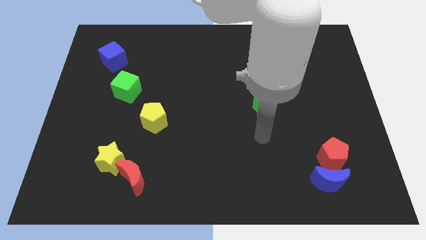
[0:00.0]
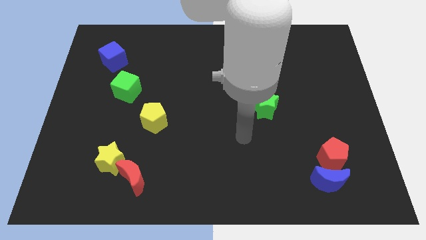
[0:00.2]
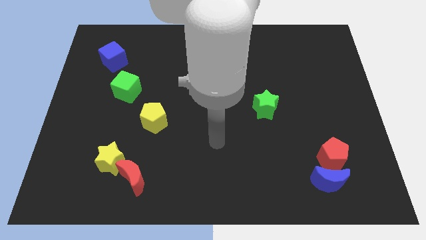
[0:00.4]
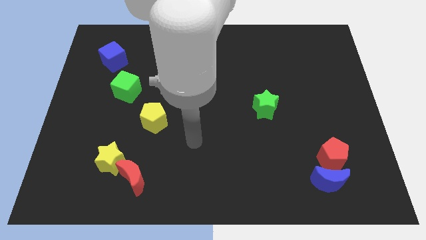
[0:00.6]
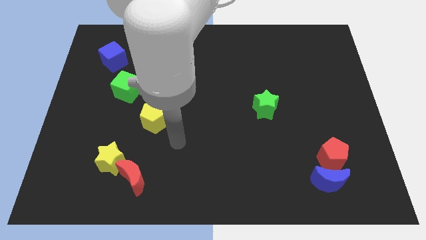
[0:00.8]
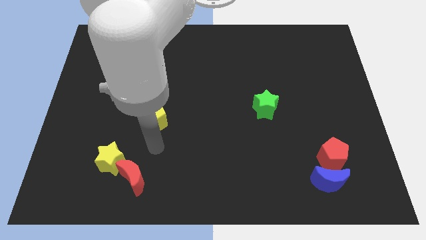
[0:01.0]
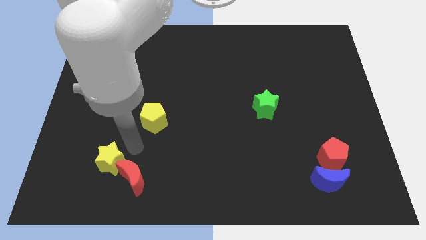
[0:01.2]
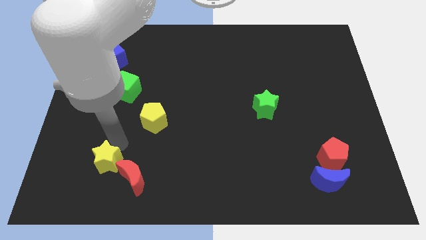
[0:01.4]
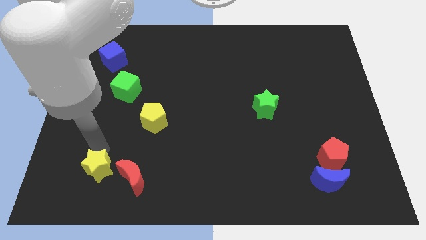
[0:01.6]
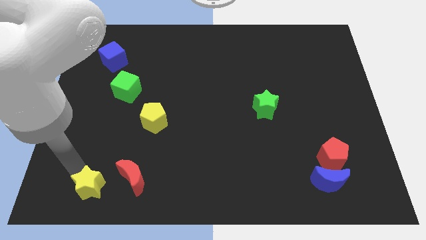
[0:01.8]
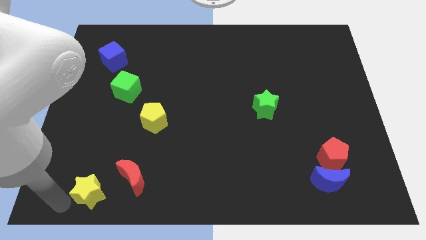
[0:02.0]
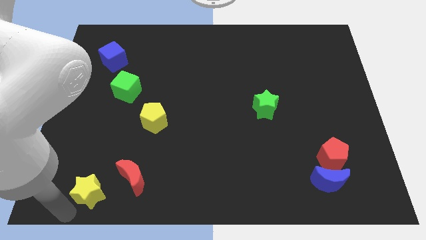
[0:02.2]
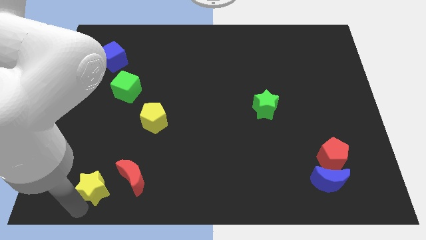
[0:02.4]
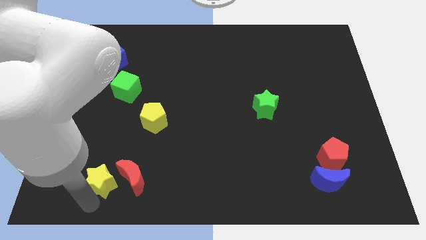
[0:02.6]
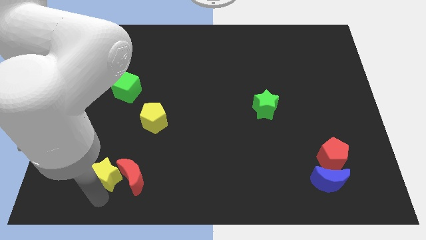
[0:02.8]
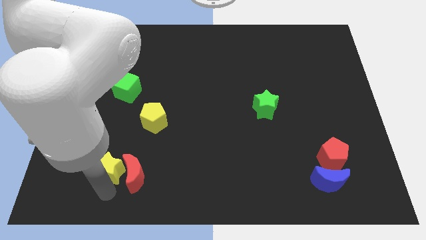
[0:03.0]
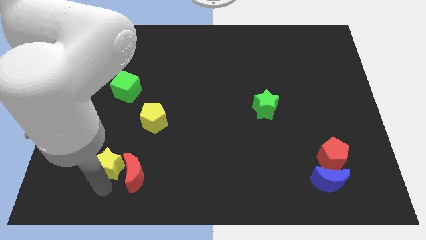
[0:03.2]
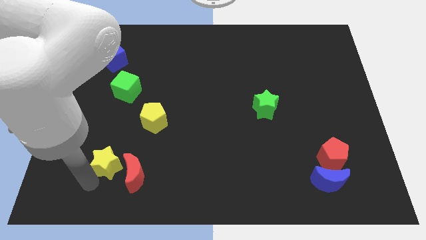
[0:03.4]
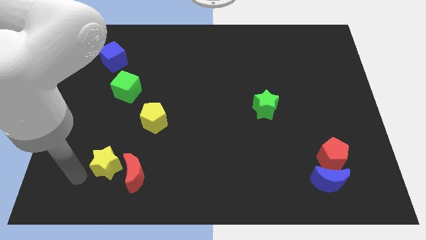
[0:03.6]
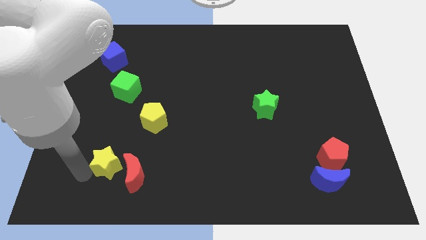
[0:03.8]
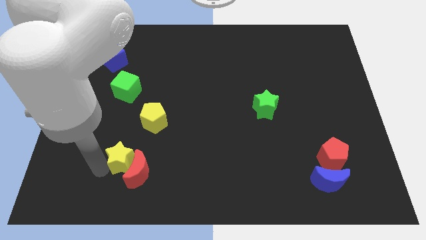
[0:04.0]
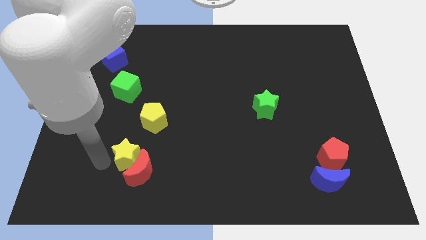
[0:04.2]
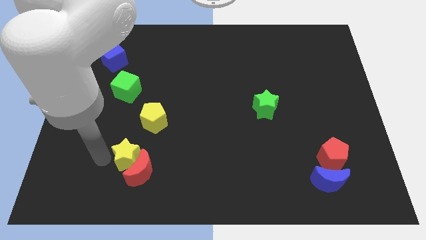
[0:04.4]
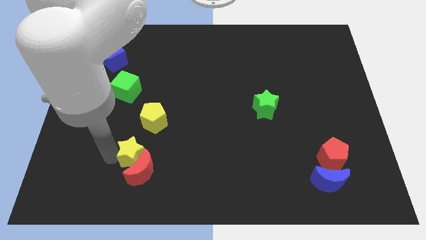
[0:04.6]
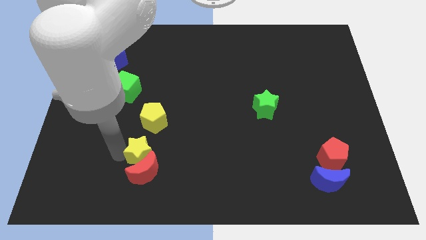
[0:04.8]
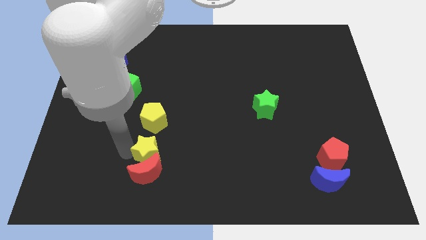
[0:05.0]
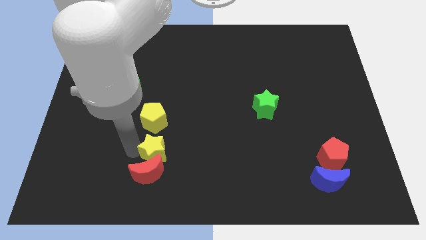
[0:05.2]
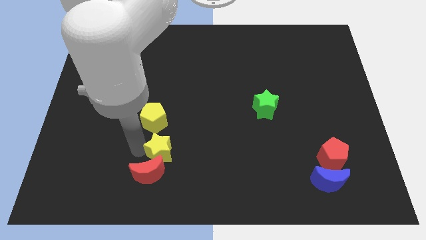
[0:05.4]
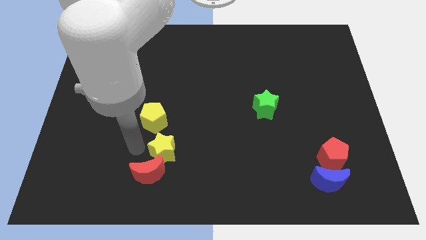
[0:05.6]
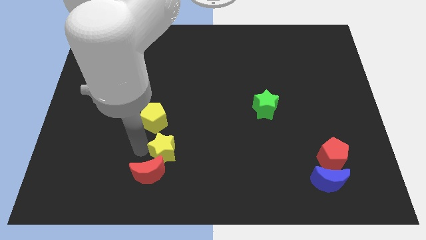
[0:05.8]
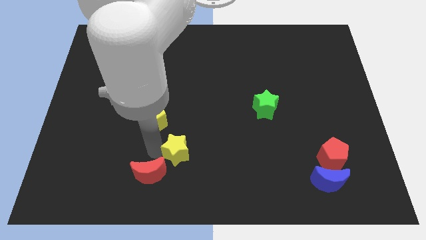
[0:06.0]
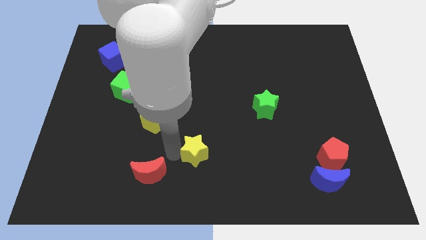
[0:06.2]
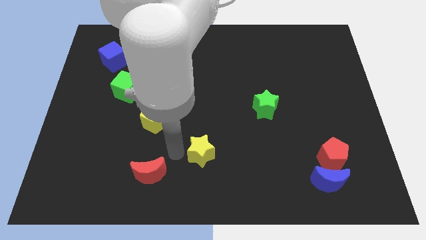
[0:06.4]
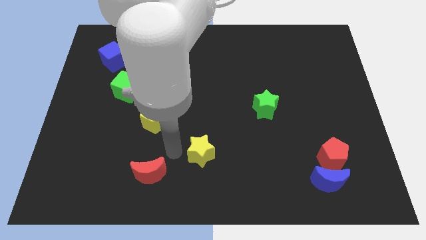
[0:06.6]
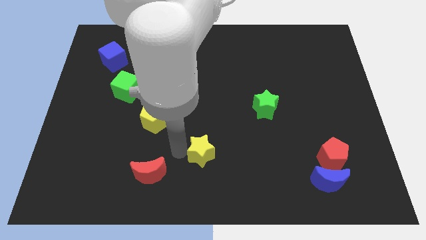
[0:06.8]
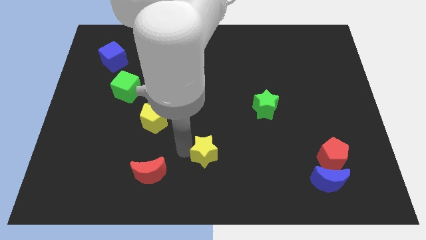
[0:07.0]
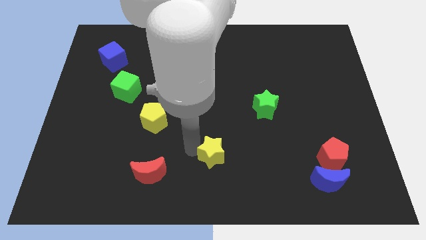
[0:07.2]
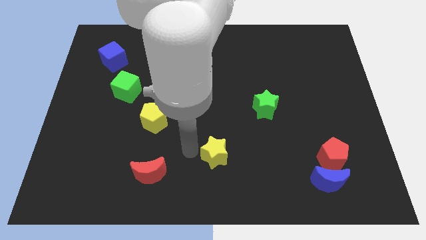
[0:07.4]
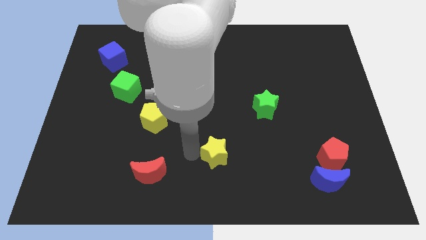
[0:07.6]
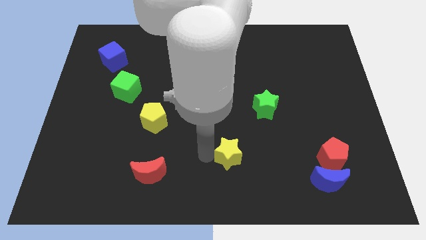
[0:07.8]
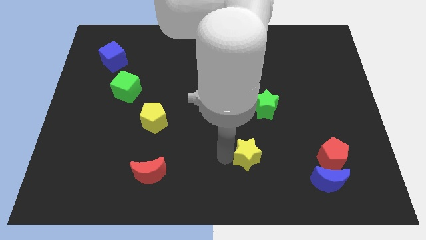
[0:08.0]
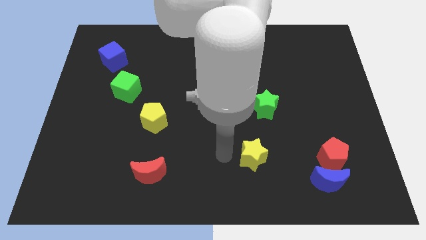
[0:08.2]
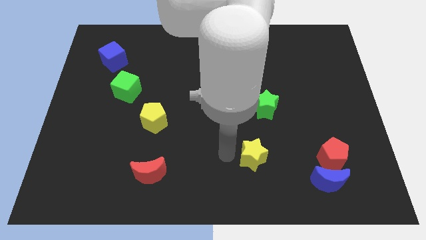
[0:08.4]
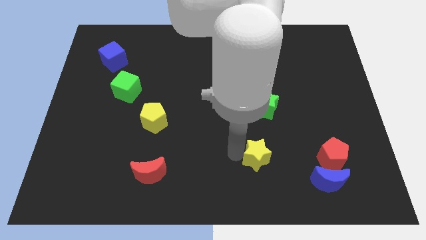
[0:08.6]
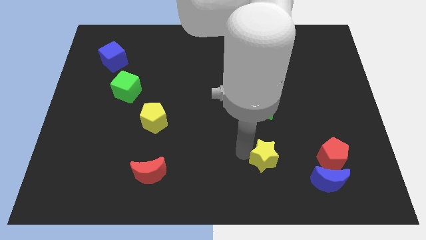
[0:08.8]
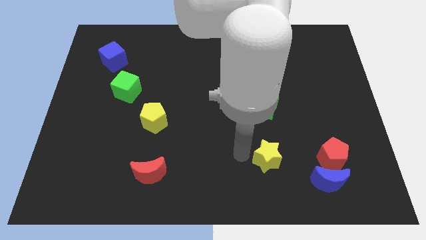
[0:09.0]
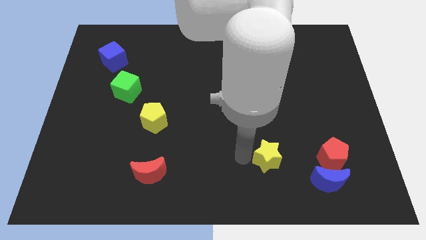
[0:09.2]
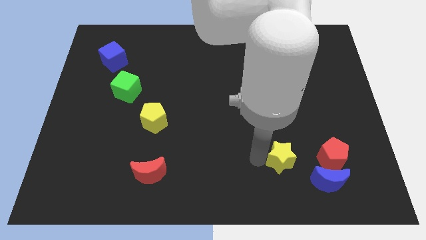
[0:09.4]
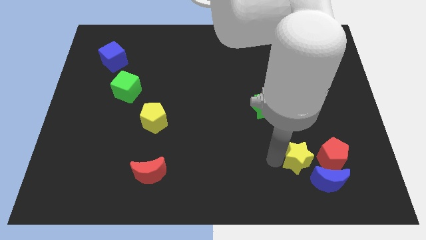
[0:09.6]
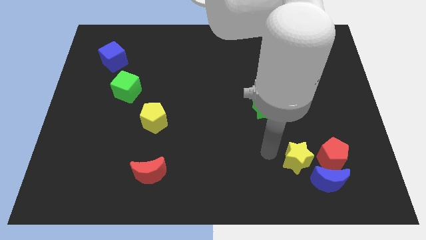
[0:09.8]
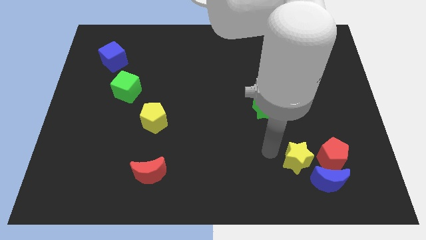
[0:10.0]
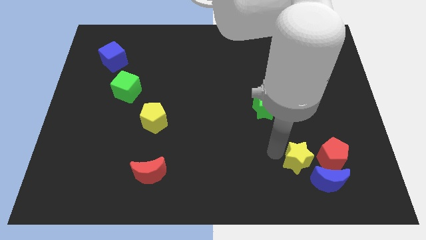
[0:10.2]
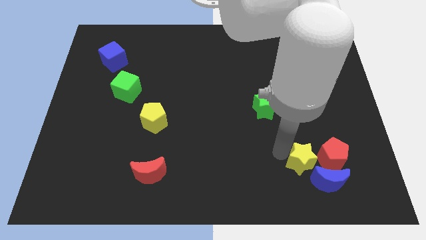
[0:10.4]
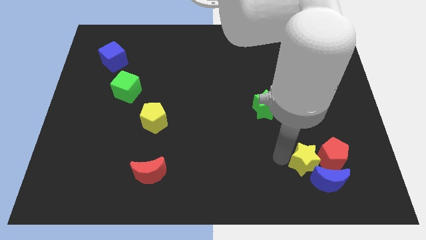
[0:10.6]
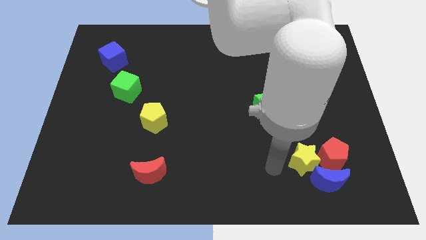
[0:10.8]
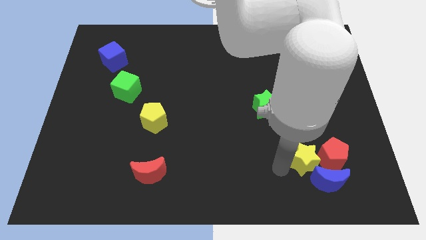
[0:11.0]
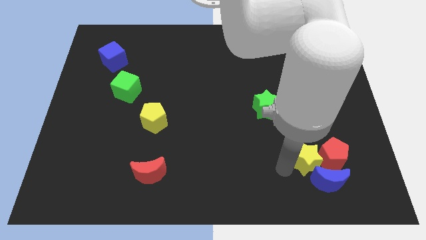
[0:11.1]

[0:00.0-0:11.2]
slide the yellow star next to the red pentagon

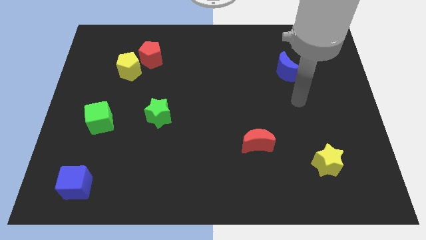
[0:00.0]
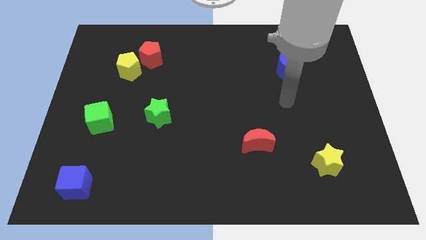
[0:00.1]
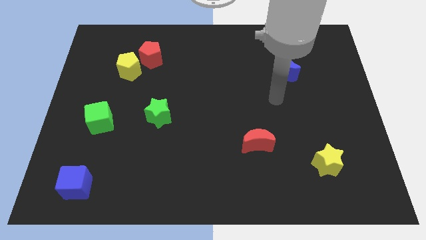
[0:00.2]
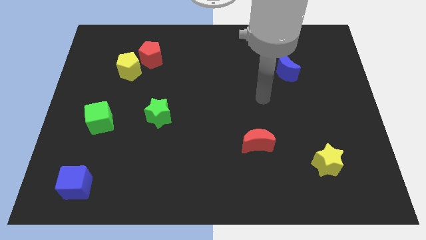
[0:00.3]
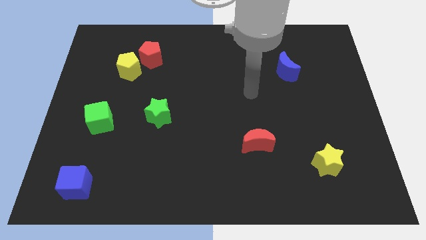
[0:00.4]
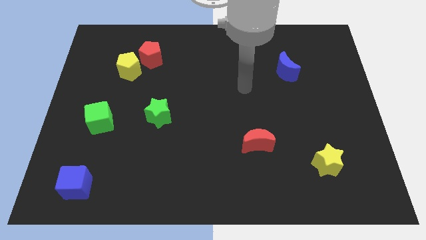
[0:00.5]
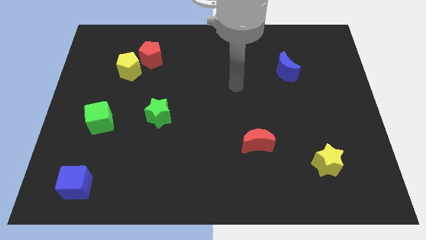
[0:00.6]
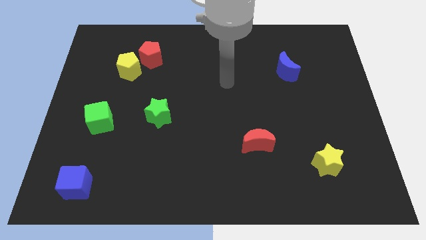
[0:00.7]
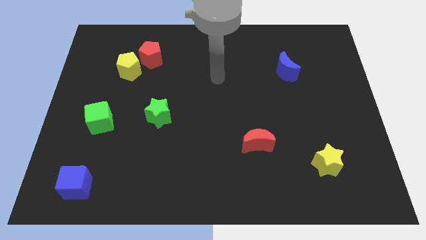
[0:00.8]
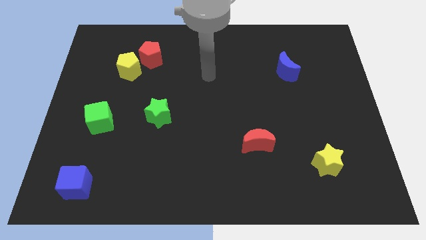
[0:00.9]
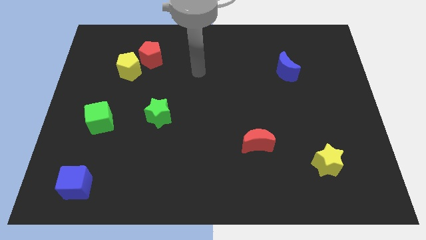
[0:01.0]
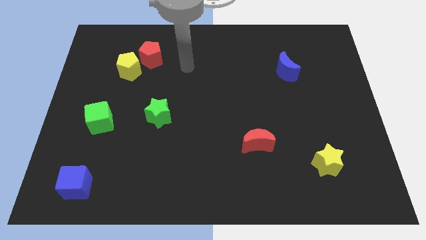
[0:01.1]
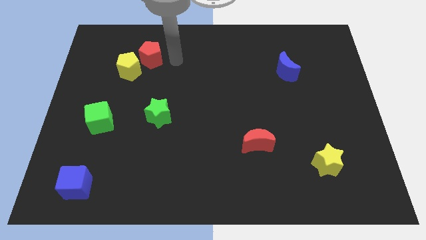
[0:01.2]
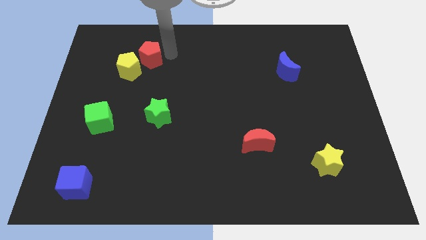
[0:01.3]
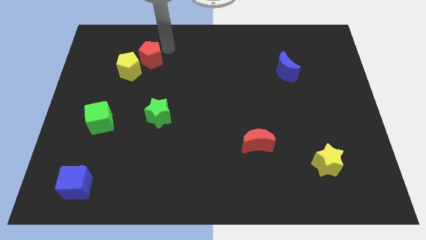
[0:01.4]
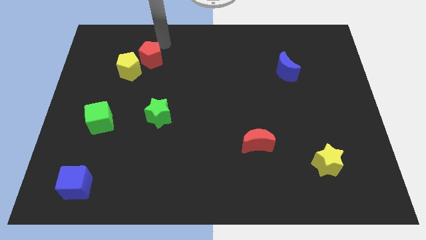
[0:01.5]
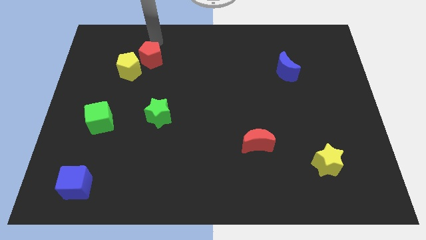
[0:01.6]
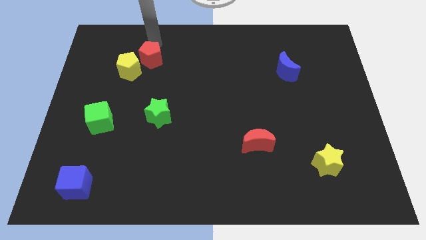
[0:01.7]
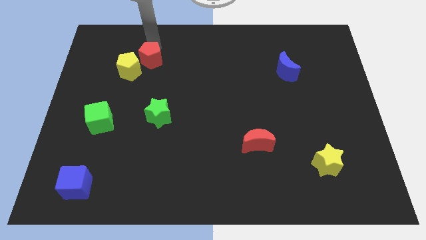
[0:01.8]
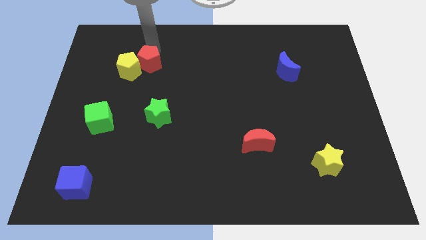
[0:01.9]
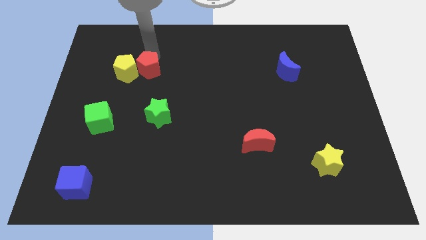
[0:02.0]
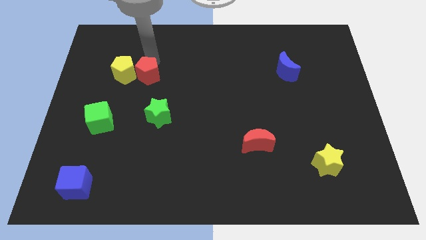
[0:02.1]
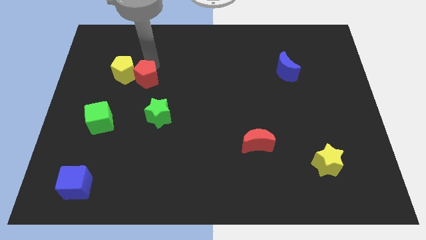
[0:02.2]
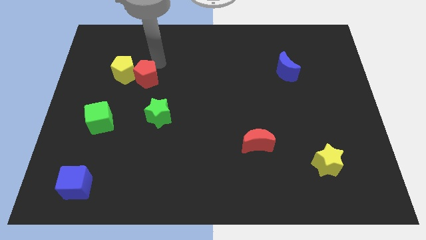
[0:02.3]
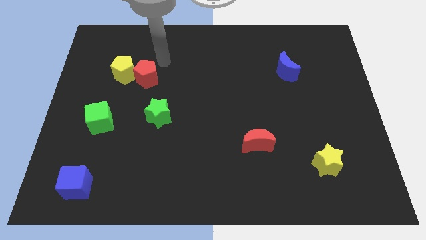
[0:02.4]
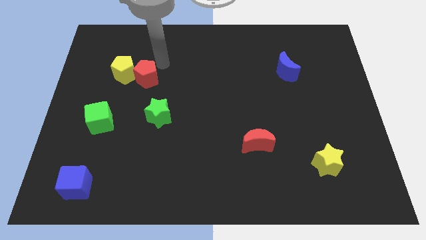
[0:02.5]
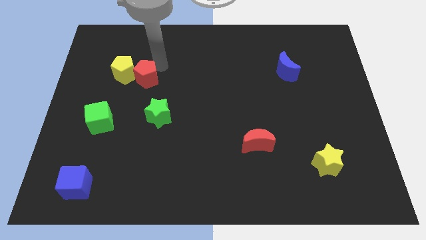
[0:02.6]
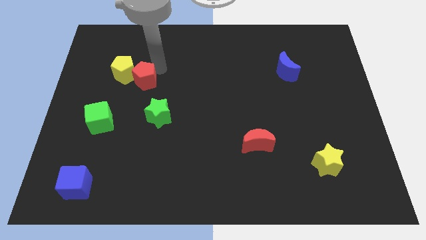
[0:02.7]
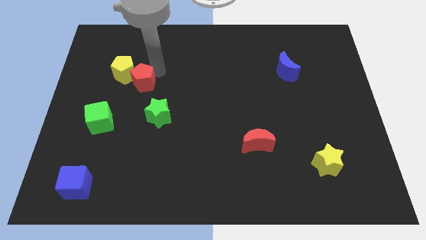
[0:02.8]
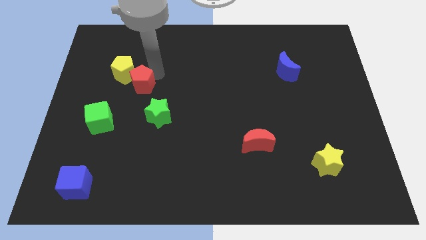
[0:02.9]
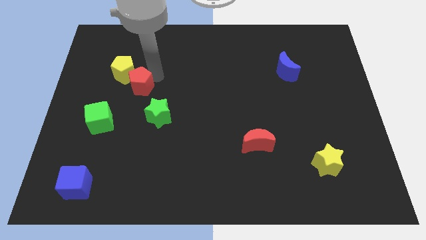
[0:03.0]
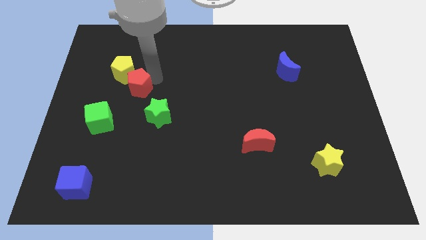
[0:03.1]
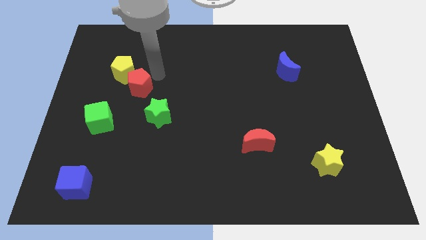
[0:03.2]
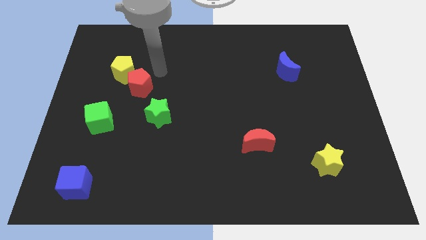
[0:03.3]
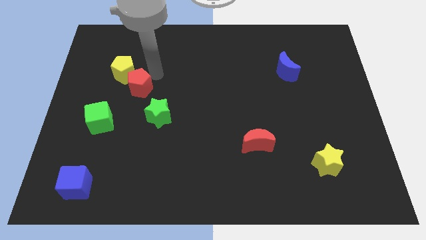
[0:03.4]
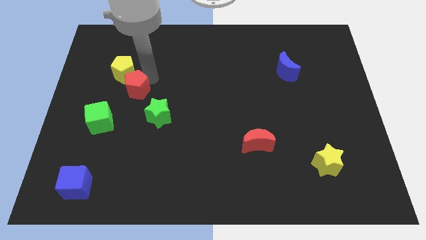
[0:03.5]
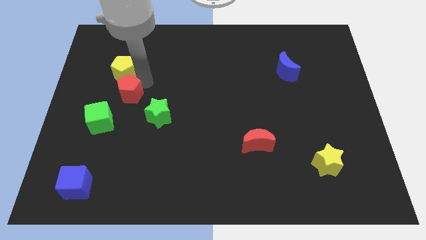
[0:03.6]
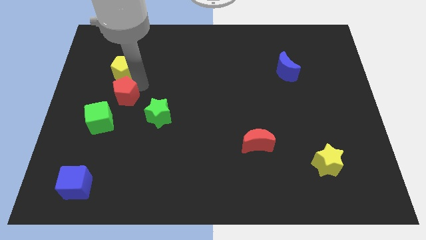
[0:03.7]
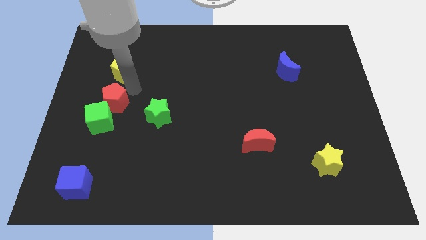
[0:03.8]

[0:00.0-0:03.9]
put the red pentagon next to the green cube
